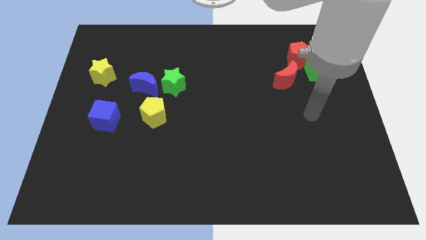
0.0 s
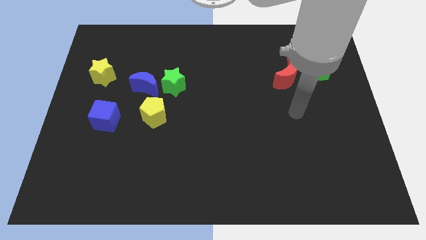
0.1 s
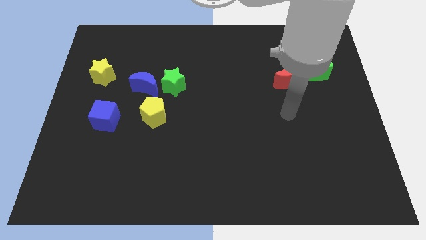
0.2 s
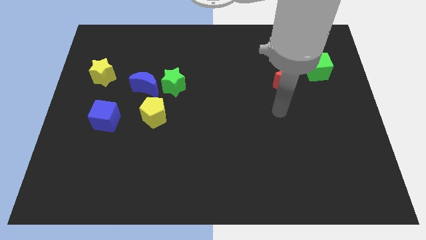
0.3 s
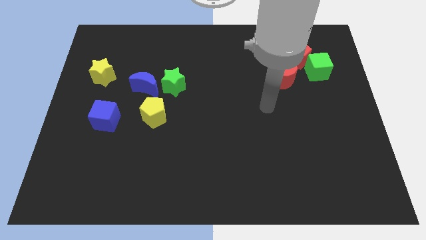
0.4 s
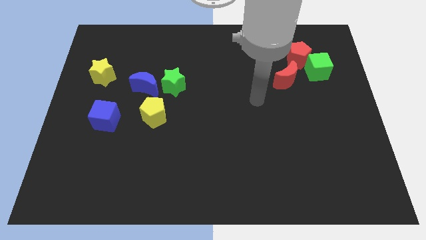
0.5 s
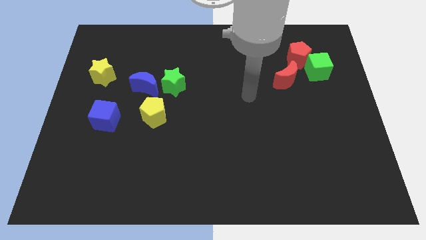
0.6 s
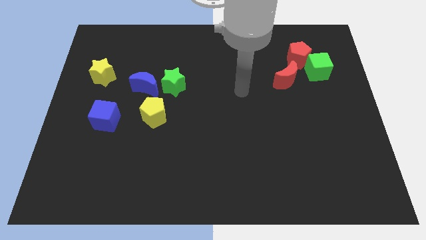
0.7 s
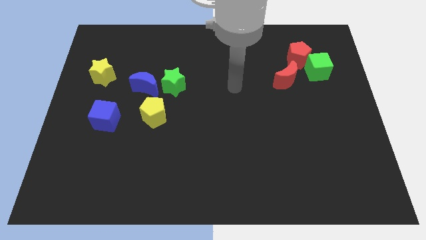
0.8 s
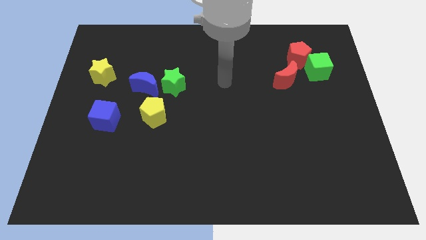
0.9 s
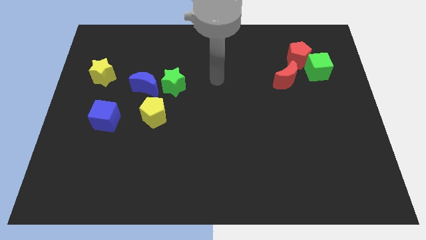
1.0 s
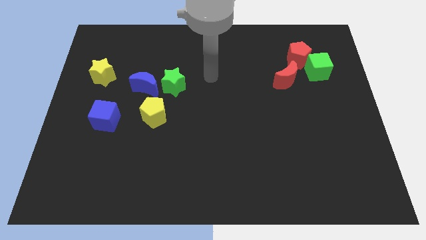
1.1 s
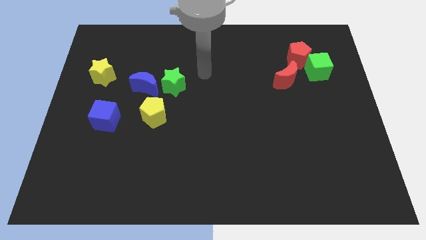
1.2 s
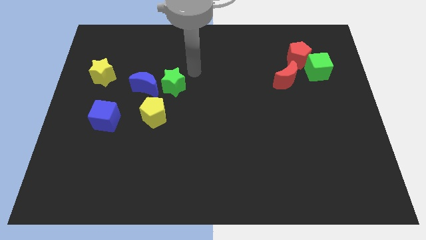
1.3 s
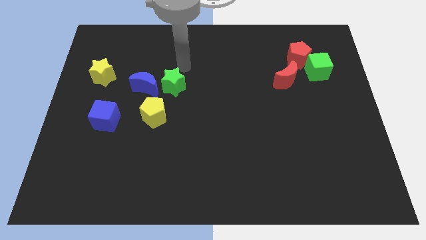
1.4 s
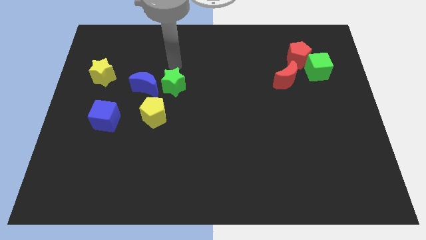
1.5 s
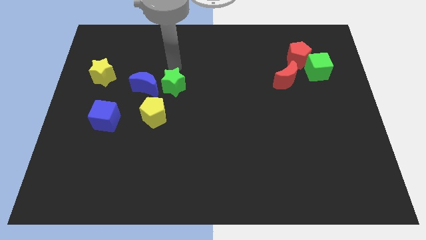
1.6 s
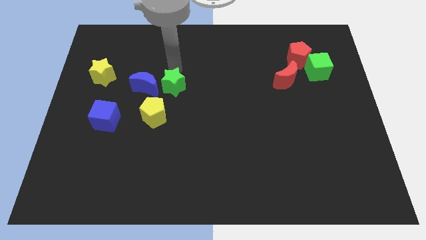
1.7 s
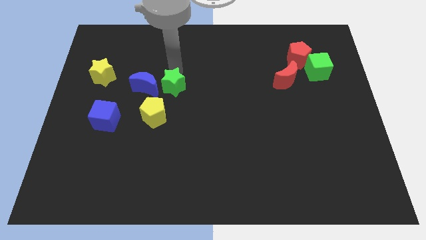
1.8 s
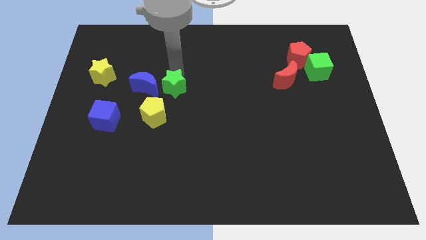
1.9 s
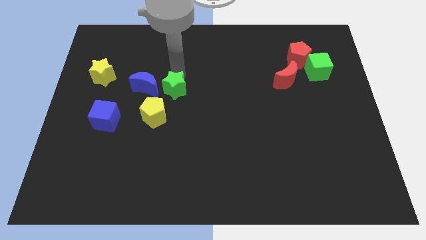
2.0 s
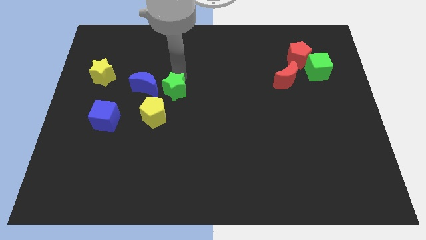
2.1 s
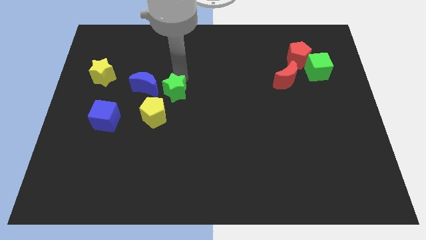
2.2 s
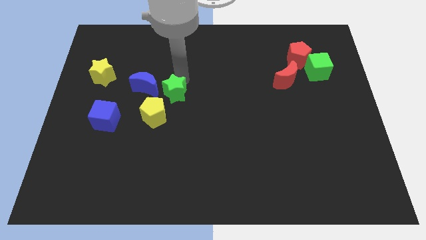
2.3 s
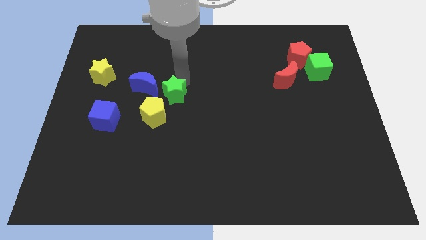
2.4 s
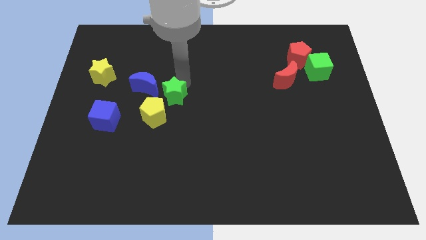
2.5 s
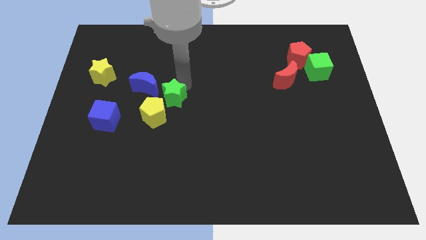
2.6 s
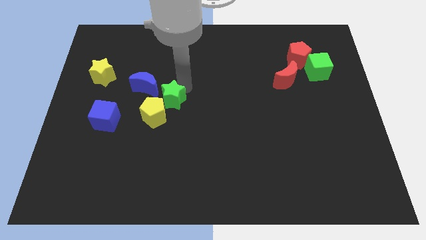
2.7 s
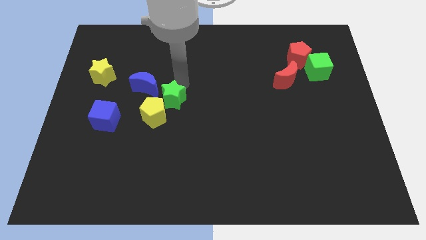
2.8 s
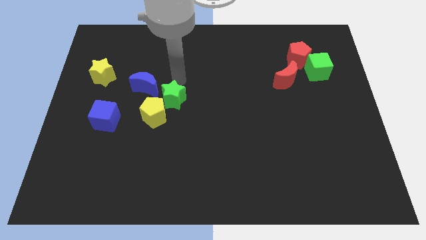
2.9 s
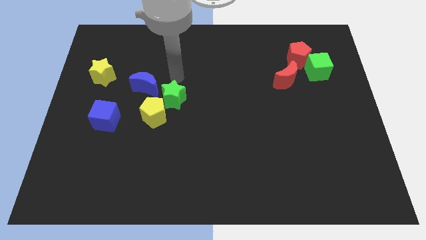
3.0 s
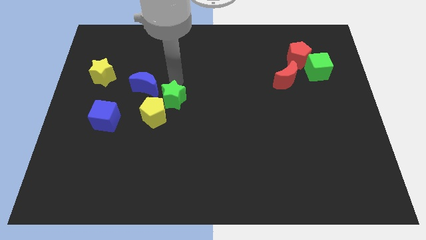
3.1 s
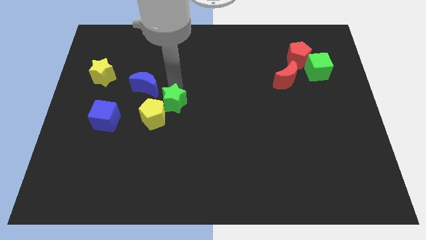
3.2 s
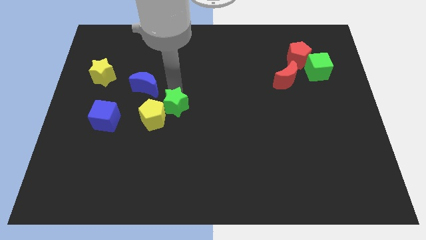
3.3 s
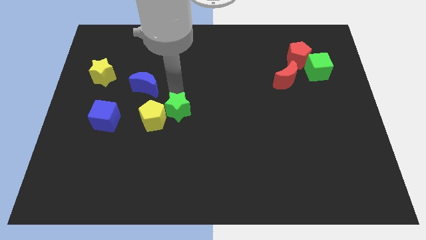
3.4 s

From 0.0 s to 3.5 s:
move the green star a little down

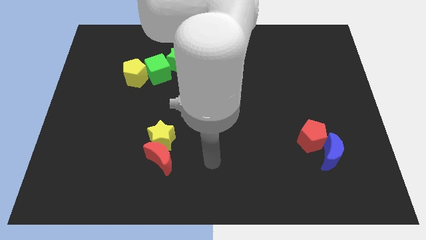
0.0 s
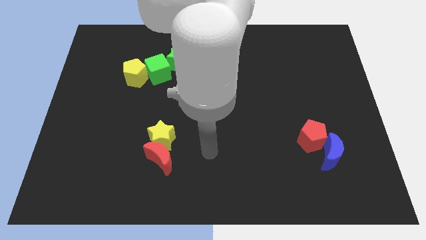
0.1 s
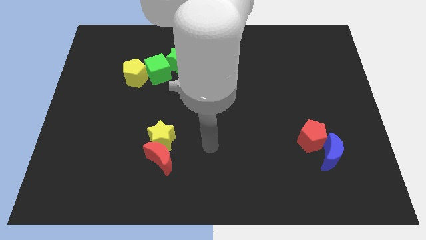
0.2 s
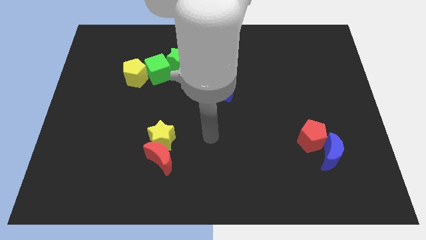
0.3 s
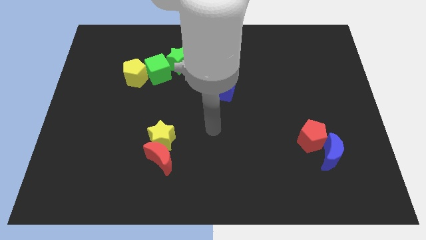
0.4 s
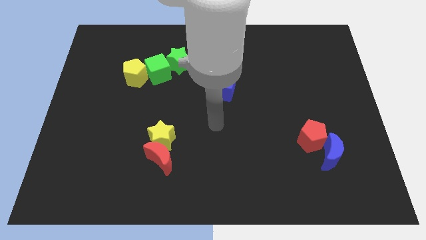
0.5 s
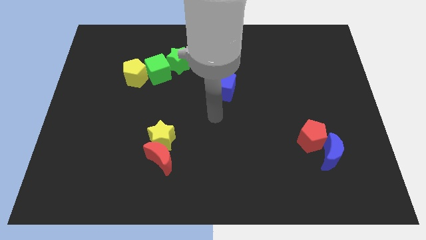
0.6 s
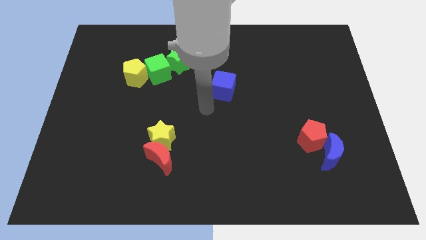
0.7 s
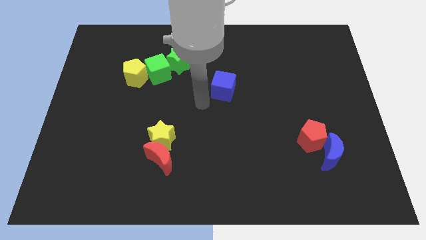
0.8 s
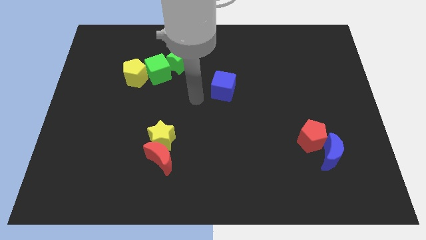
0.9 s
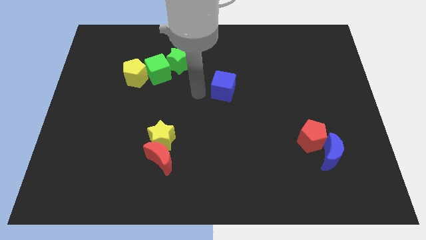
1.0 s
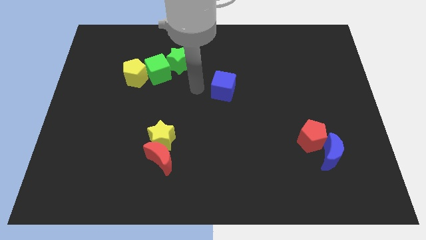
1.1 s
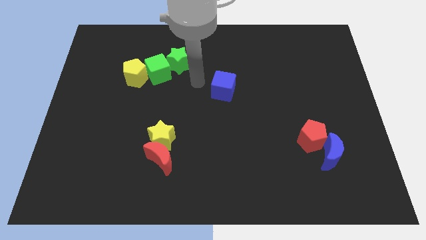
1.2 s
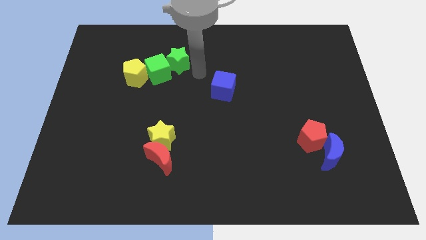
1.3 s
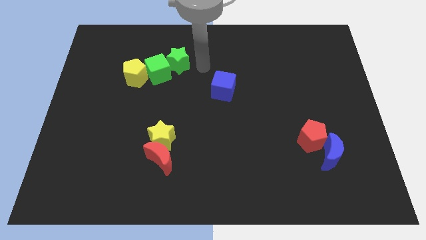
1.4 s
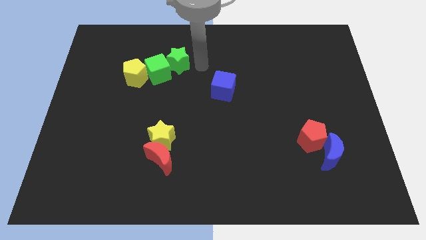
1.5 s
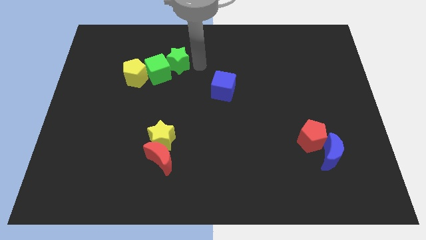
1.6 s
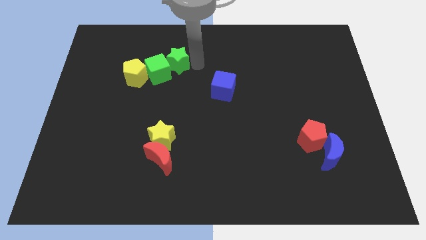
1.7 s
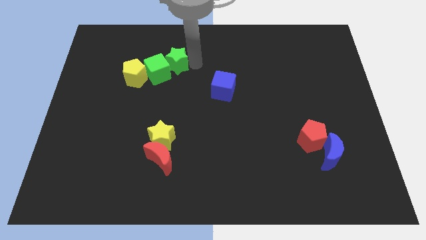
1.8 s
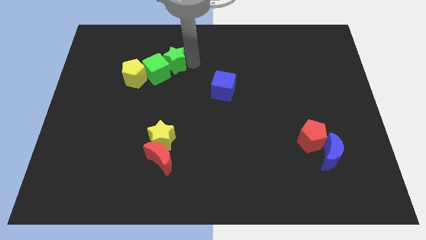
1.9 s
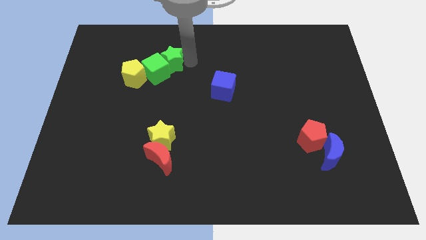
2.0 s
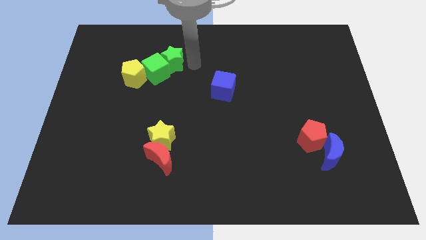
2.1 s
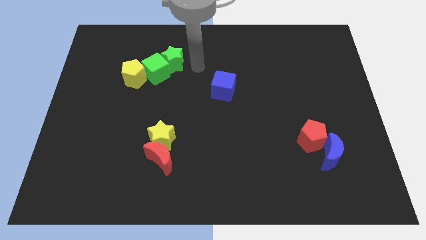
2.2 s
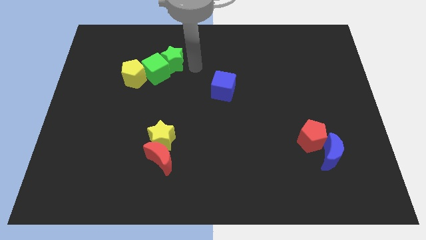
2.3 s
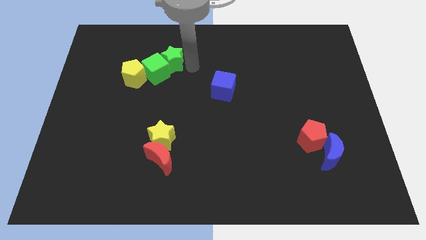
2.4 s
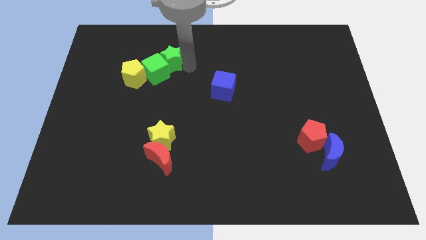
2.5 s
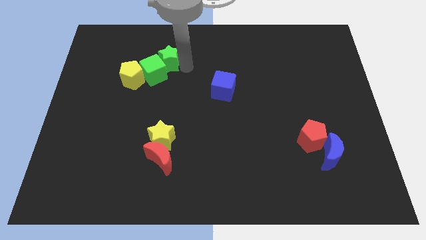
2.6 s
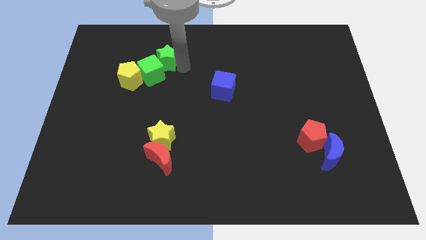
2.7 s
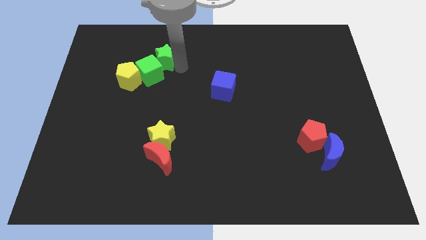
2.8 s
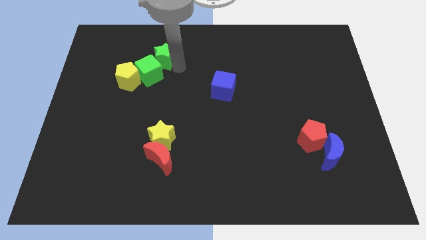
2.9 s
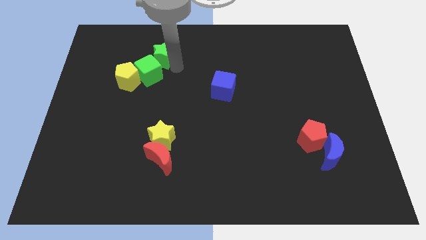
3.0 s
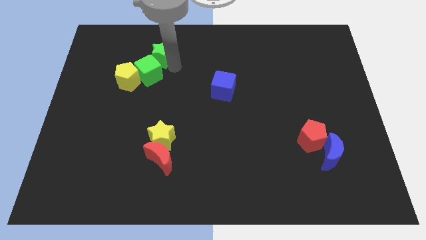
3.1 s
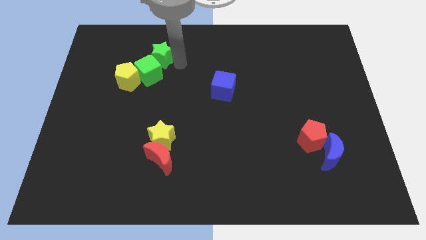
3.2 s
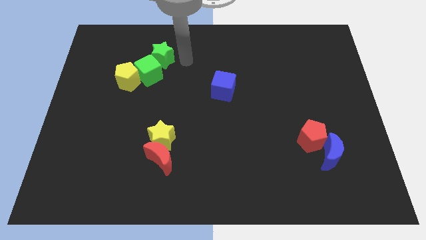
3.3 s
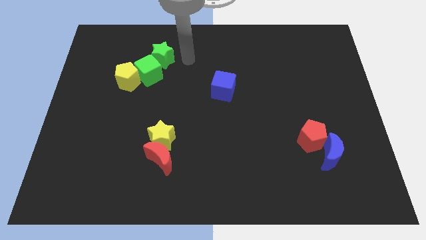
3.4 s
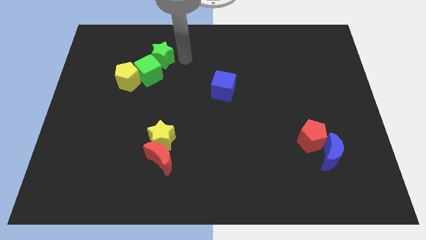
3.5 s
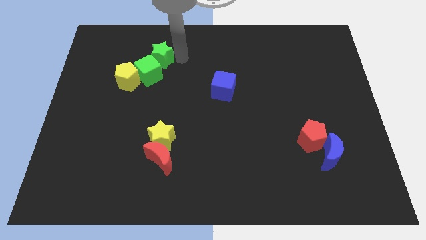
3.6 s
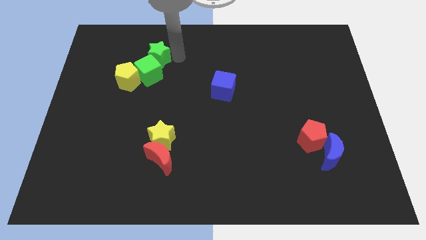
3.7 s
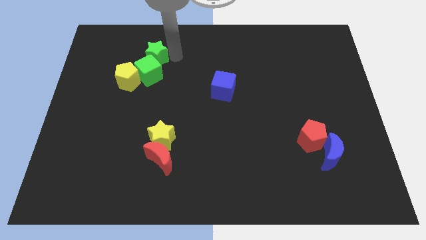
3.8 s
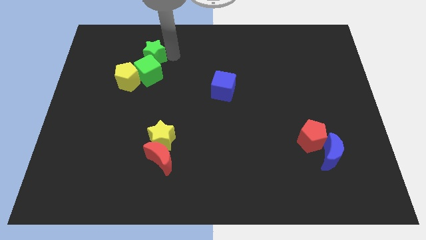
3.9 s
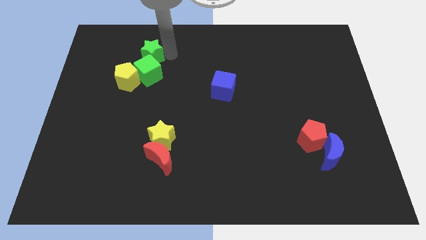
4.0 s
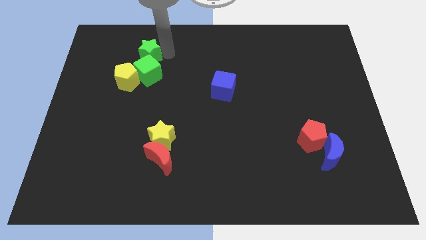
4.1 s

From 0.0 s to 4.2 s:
move the green star to the left slightly
